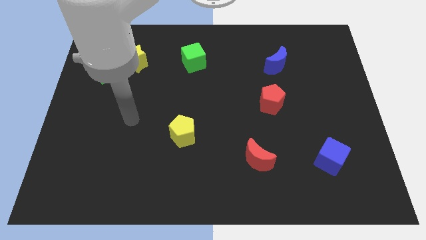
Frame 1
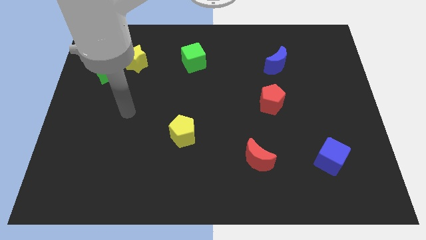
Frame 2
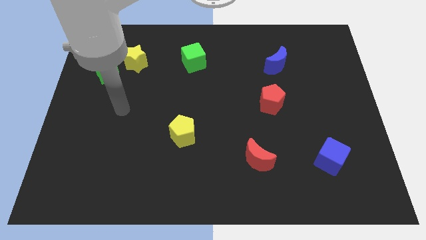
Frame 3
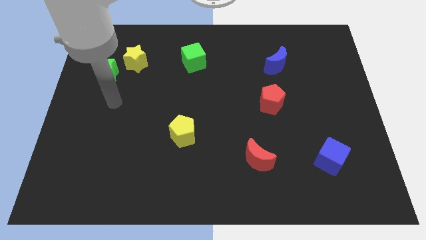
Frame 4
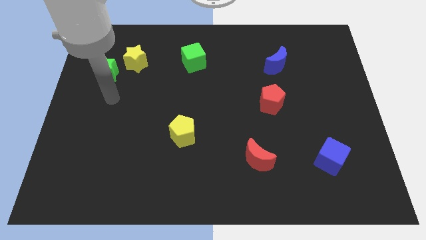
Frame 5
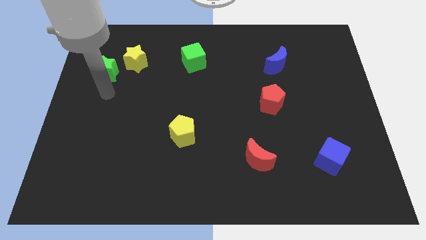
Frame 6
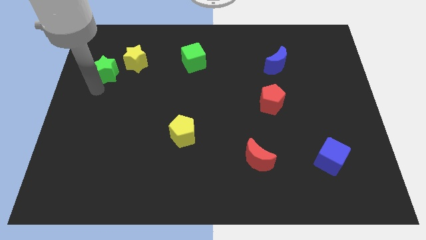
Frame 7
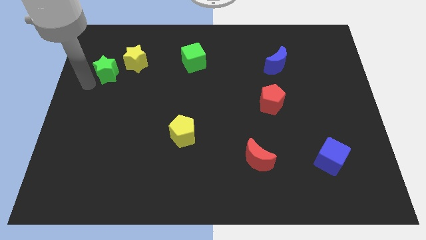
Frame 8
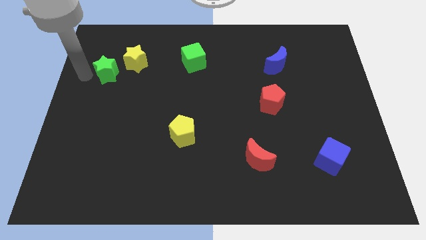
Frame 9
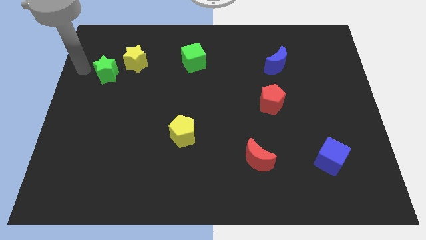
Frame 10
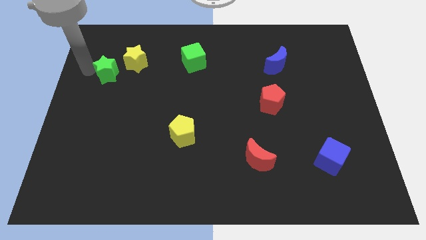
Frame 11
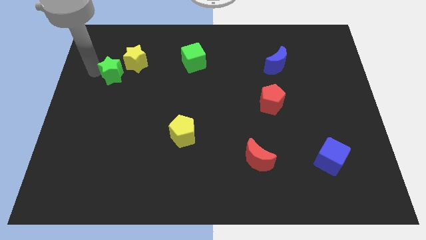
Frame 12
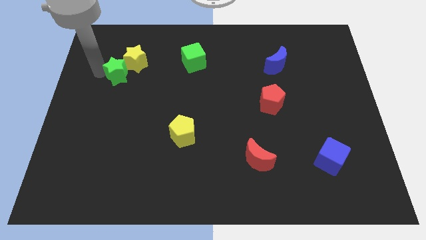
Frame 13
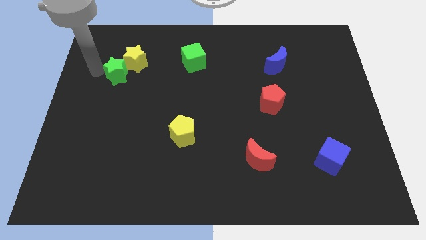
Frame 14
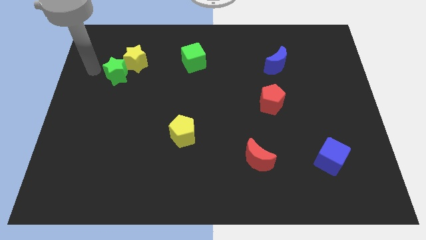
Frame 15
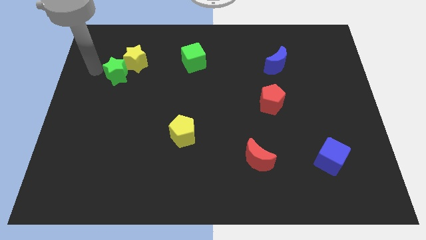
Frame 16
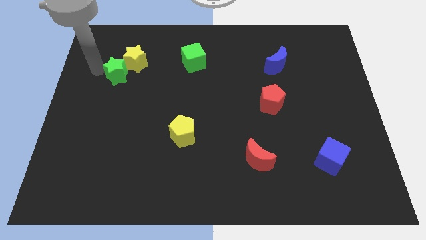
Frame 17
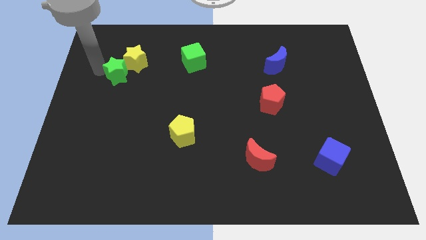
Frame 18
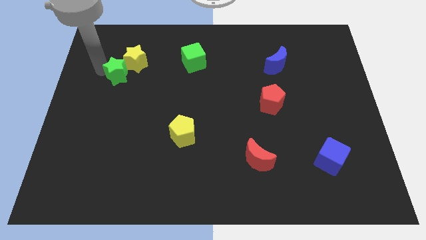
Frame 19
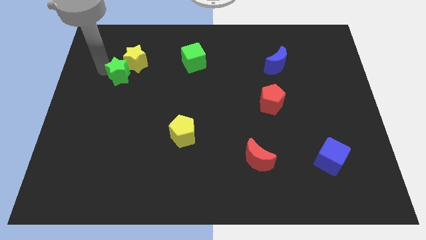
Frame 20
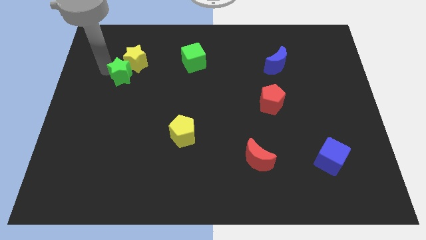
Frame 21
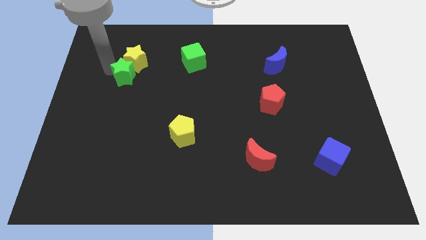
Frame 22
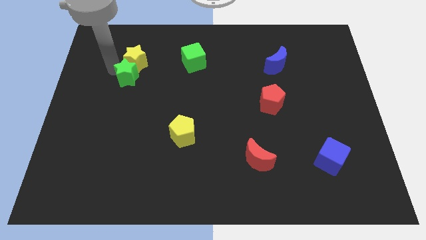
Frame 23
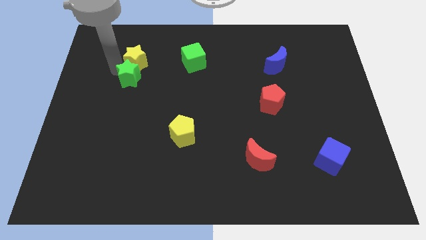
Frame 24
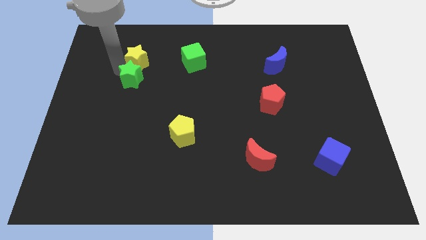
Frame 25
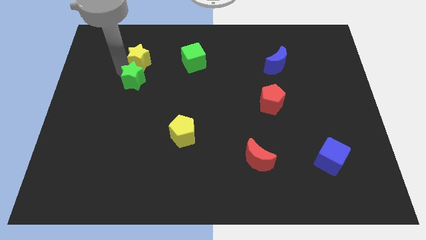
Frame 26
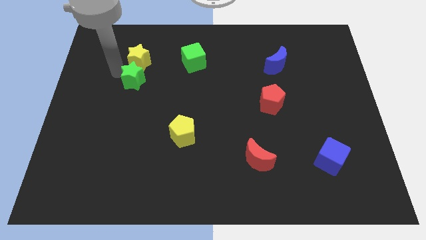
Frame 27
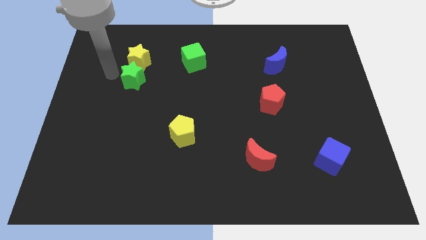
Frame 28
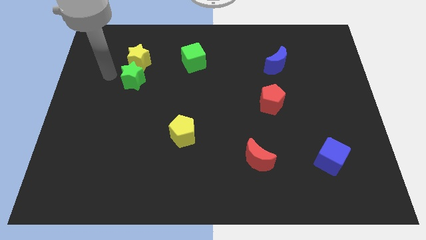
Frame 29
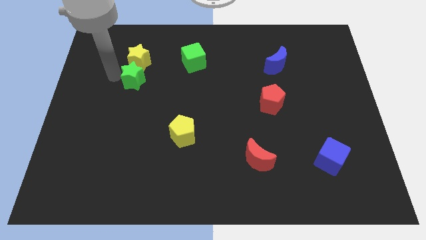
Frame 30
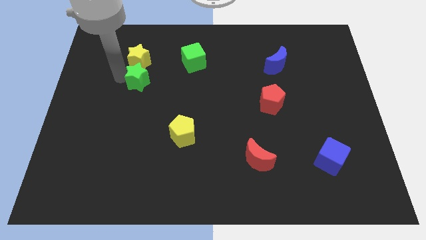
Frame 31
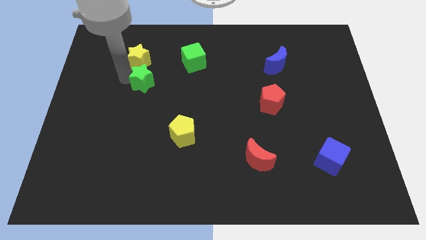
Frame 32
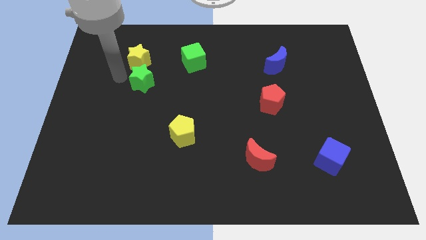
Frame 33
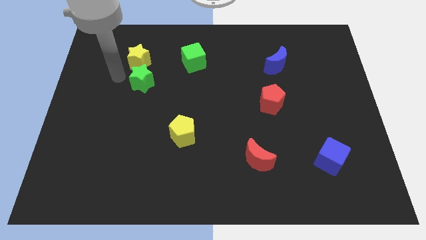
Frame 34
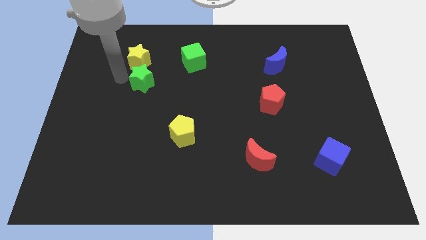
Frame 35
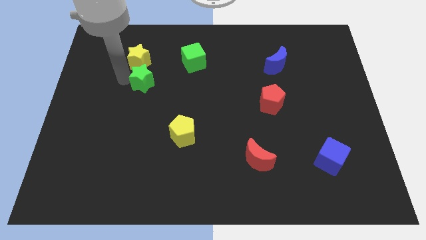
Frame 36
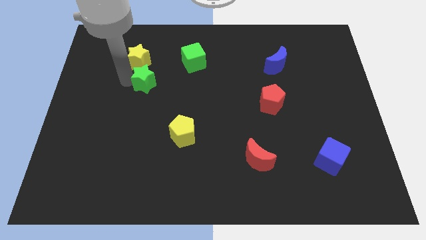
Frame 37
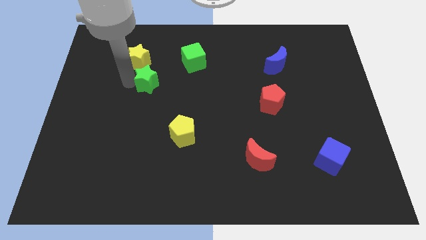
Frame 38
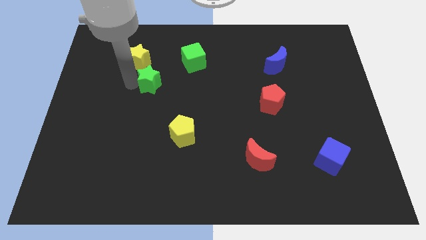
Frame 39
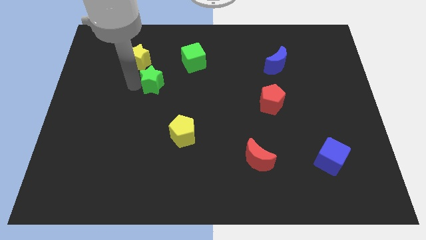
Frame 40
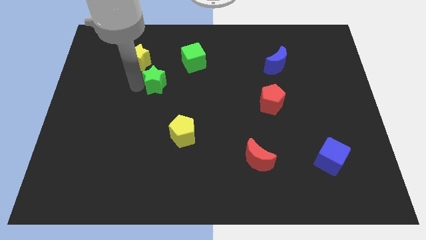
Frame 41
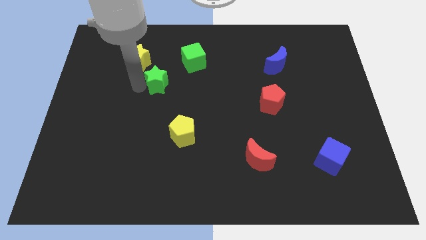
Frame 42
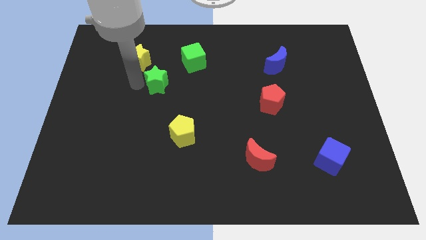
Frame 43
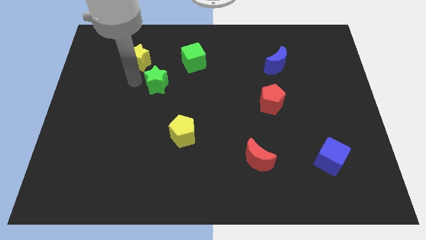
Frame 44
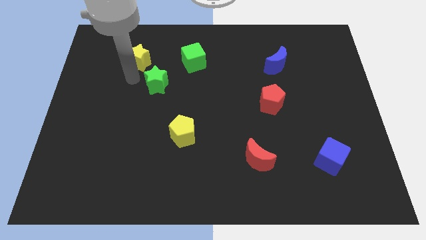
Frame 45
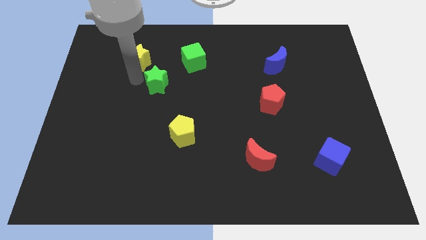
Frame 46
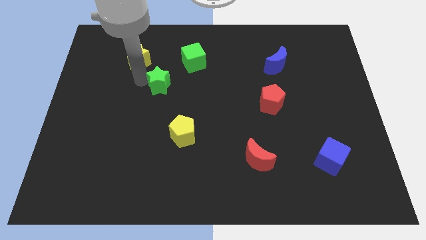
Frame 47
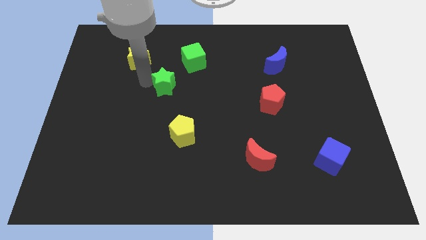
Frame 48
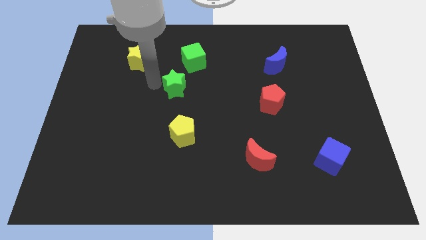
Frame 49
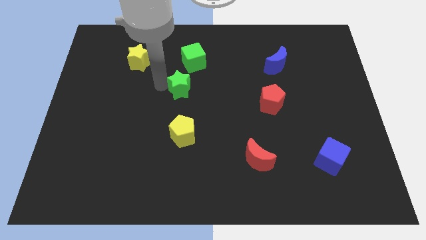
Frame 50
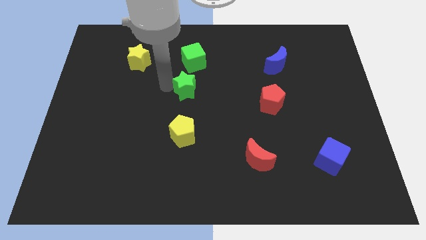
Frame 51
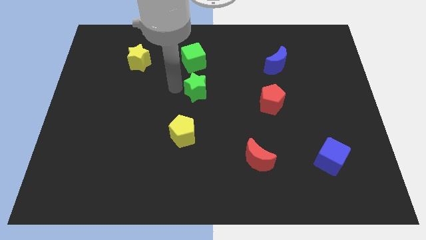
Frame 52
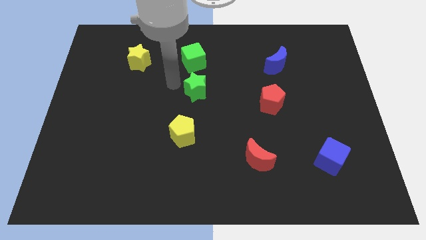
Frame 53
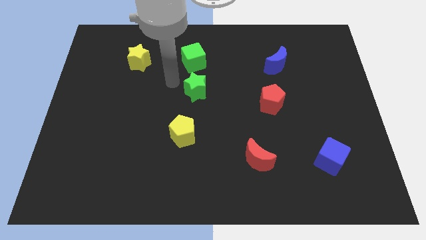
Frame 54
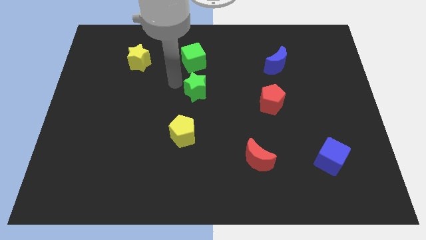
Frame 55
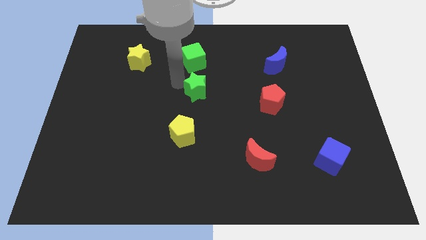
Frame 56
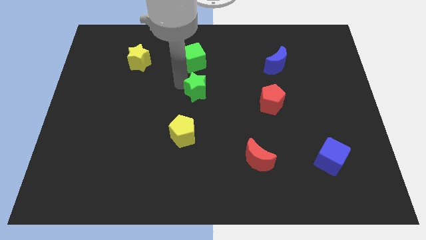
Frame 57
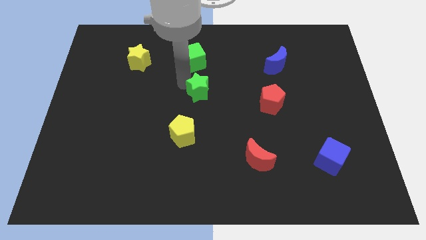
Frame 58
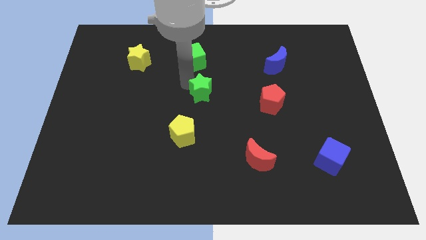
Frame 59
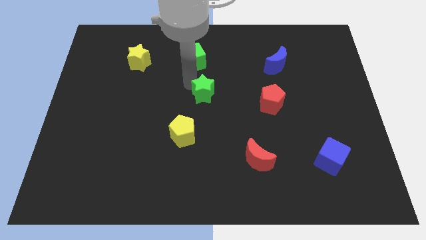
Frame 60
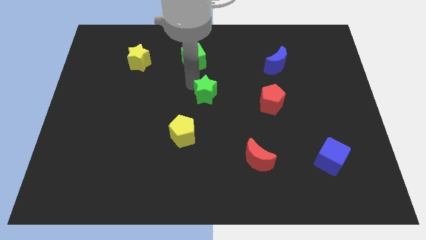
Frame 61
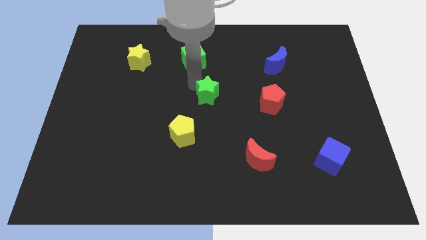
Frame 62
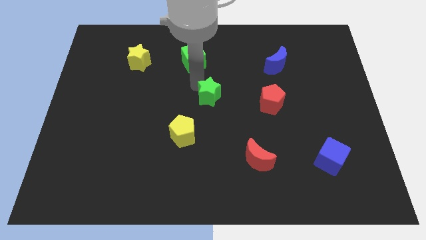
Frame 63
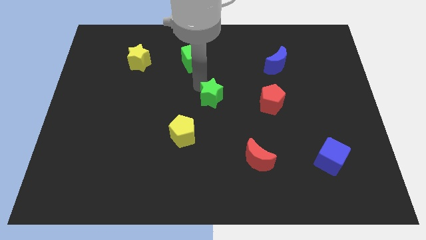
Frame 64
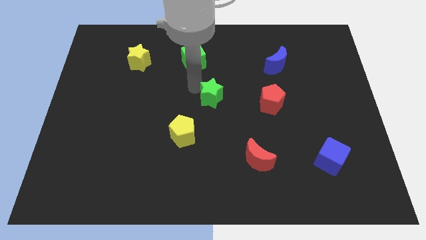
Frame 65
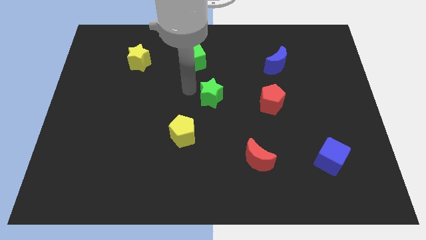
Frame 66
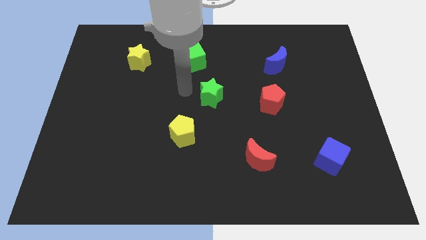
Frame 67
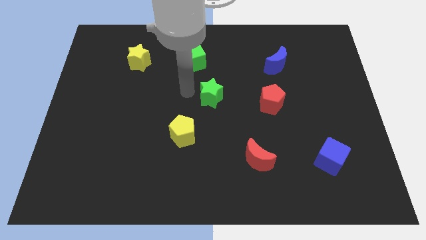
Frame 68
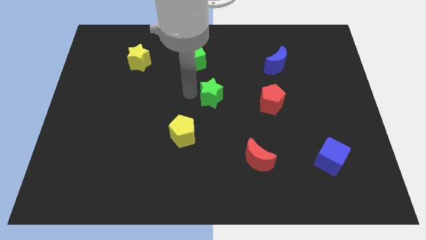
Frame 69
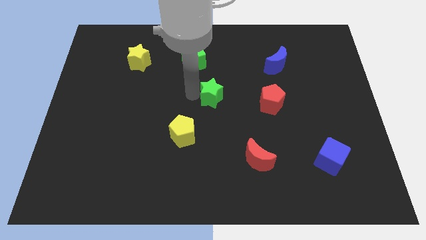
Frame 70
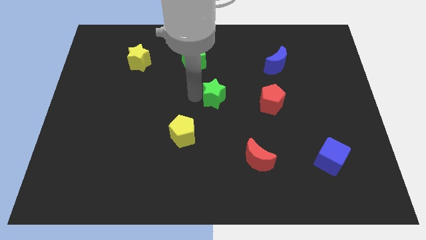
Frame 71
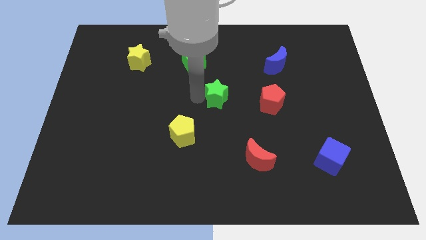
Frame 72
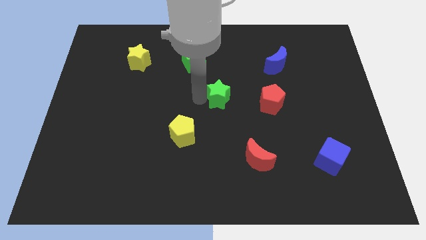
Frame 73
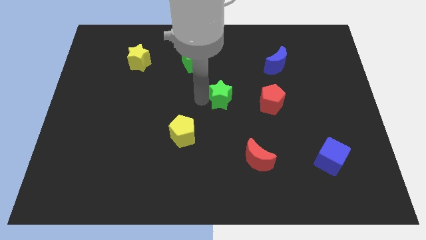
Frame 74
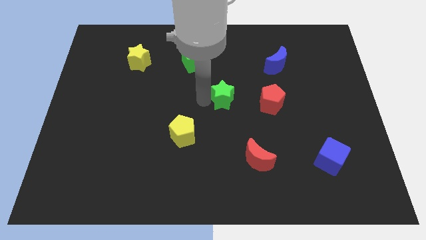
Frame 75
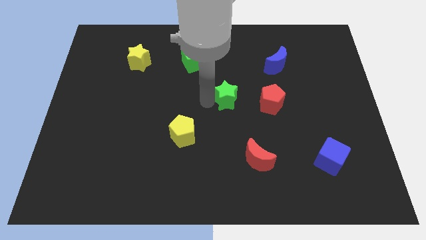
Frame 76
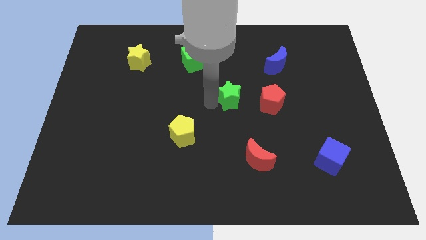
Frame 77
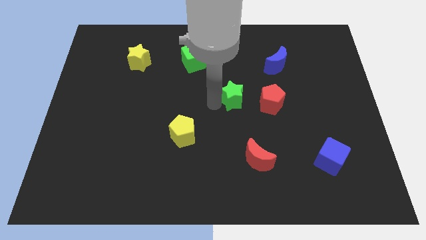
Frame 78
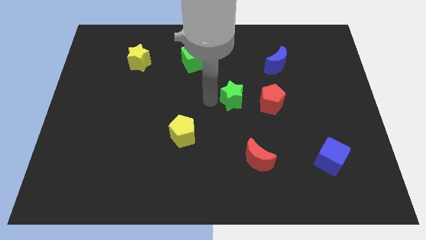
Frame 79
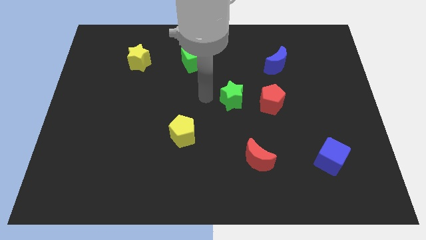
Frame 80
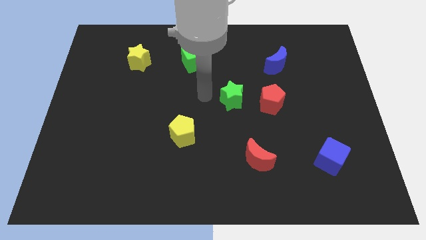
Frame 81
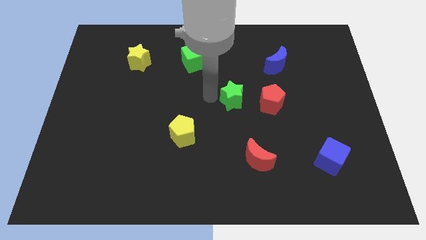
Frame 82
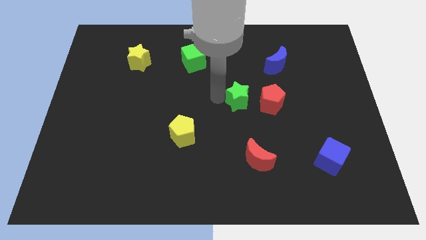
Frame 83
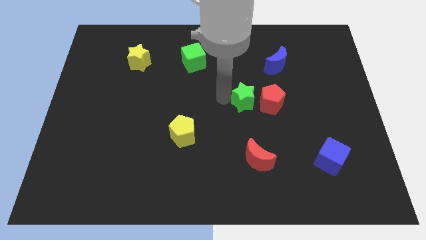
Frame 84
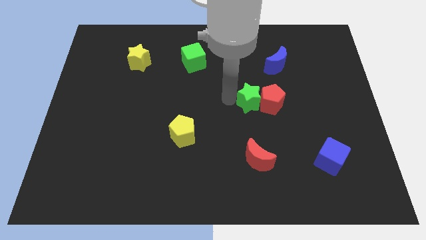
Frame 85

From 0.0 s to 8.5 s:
put the green star next to the red pentagon

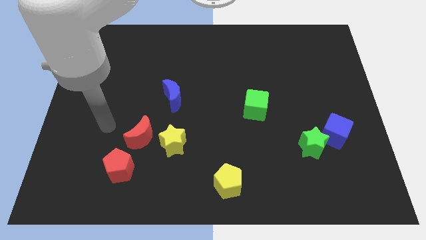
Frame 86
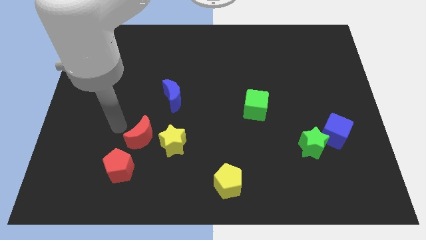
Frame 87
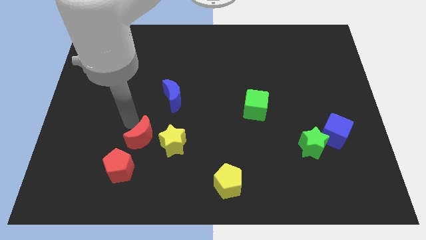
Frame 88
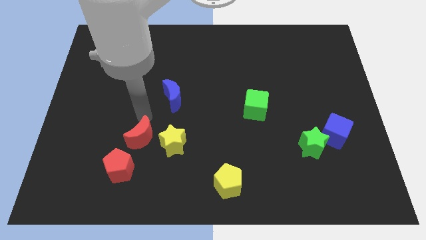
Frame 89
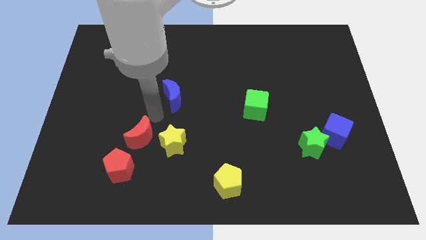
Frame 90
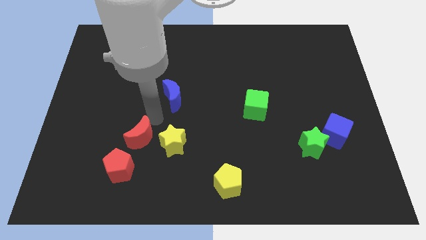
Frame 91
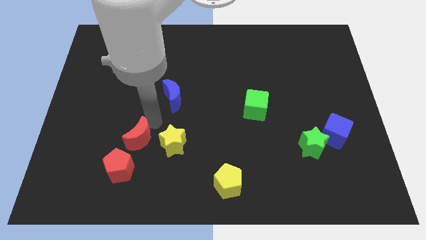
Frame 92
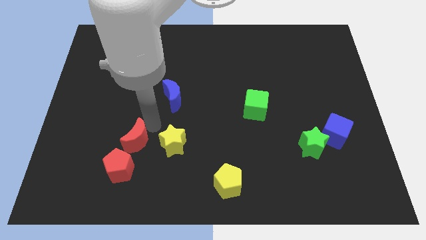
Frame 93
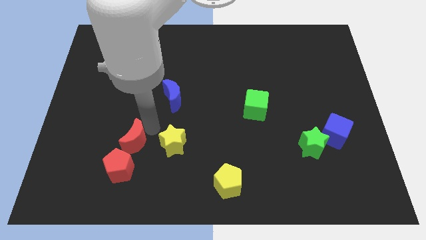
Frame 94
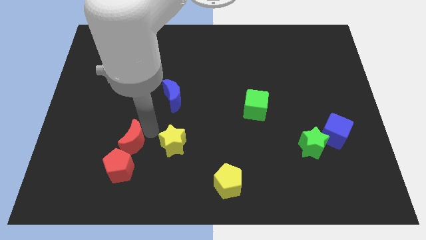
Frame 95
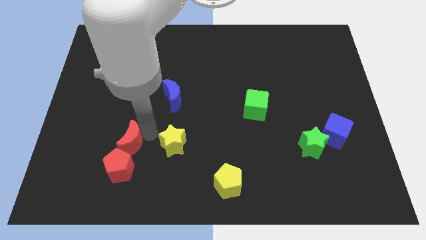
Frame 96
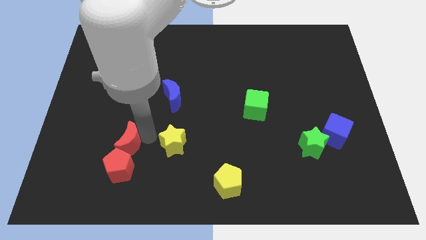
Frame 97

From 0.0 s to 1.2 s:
move the red moon to the red pentagon
